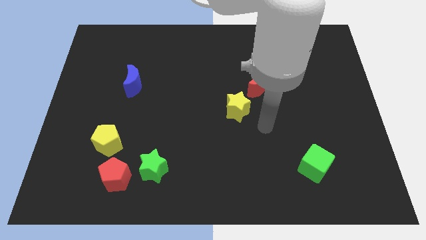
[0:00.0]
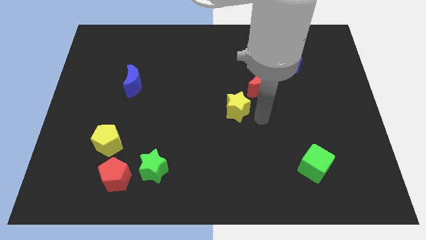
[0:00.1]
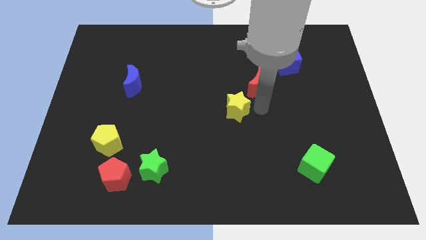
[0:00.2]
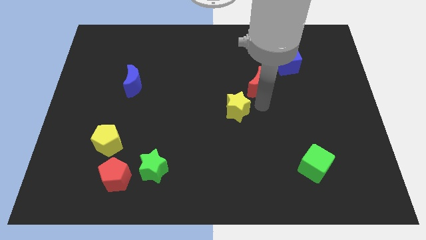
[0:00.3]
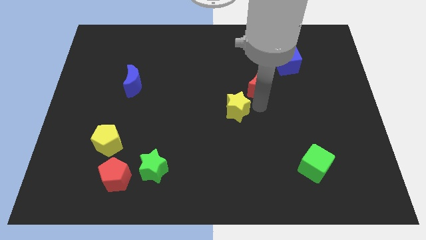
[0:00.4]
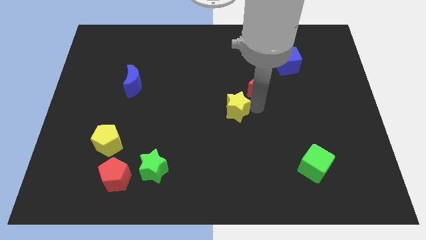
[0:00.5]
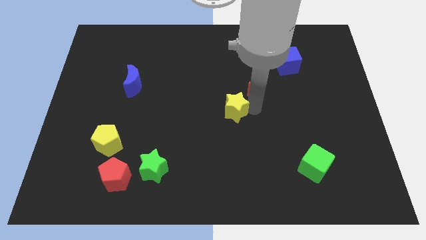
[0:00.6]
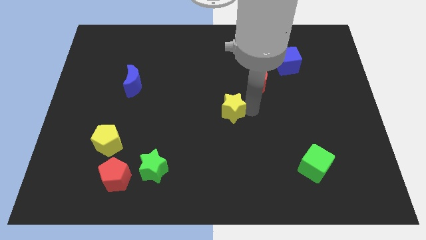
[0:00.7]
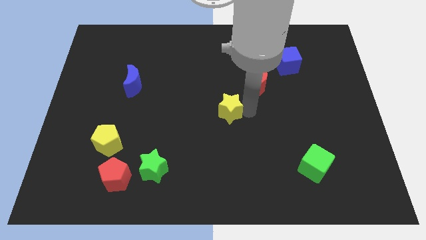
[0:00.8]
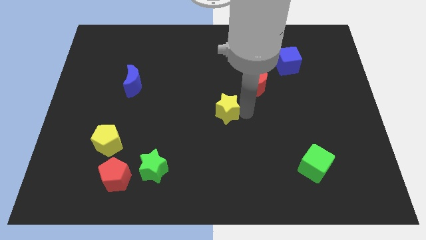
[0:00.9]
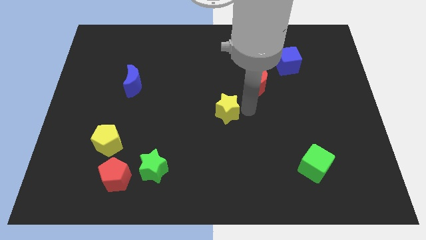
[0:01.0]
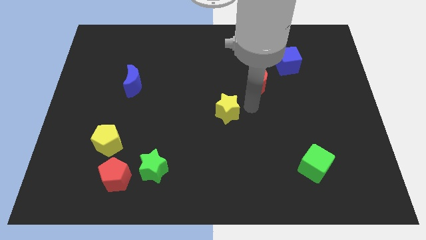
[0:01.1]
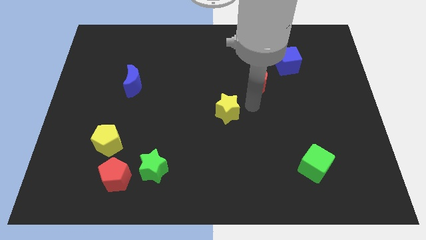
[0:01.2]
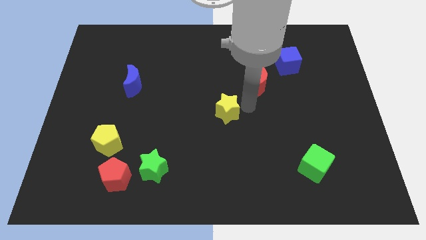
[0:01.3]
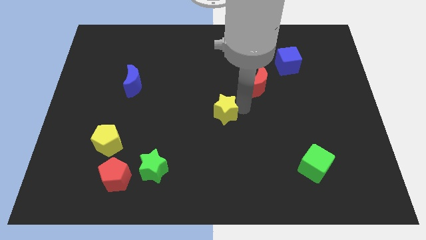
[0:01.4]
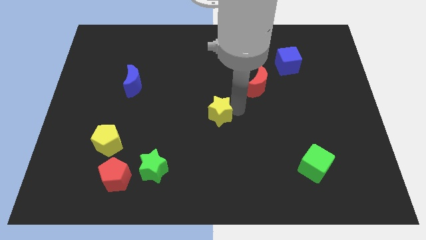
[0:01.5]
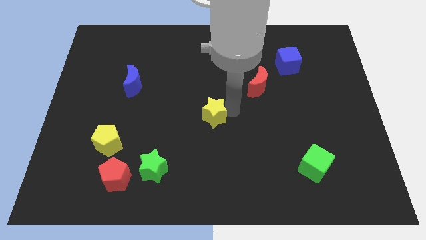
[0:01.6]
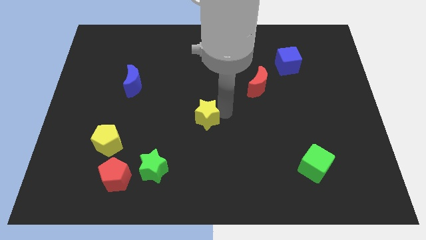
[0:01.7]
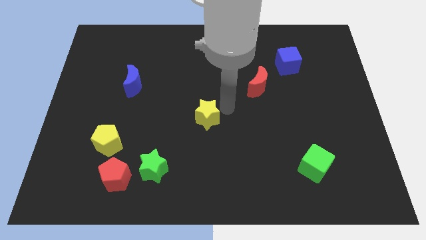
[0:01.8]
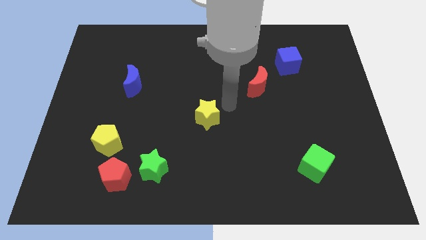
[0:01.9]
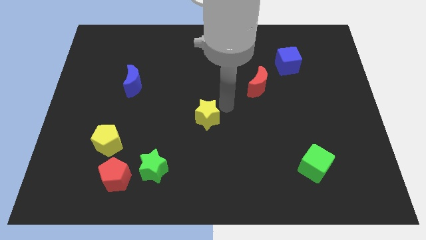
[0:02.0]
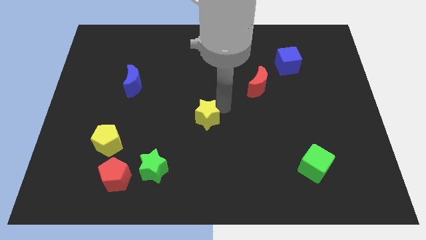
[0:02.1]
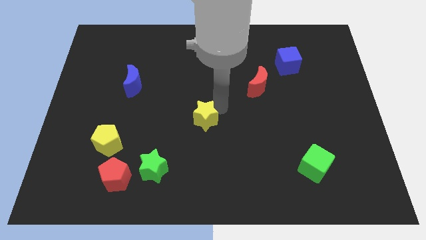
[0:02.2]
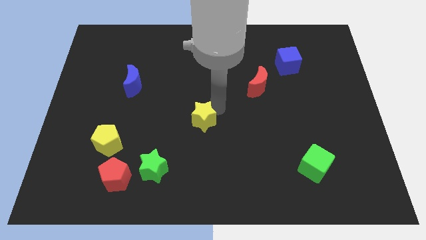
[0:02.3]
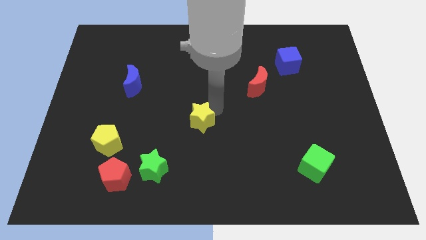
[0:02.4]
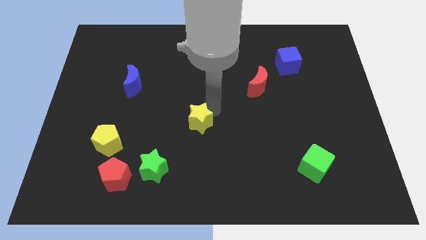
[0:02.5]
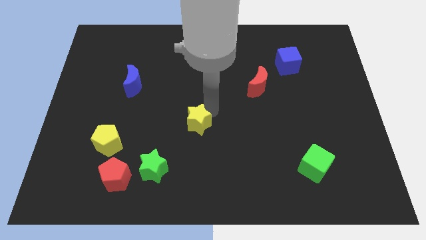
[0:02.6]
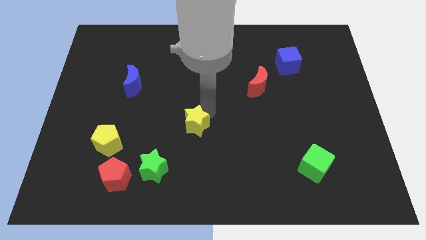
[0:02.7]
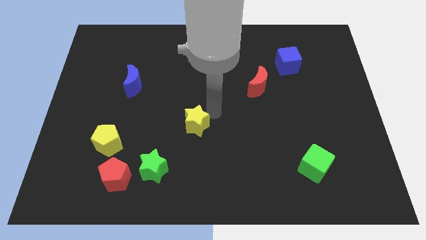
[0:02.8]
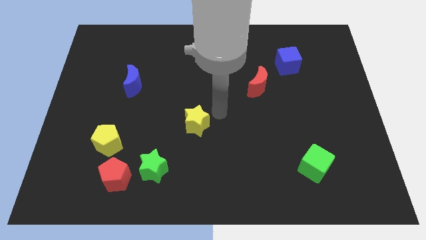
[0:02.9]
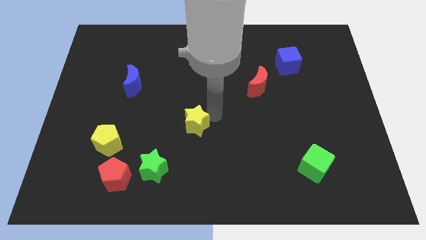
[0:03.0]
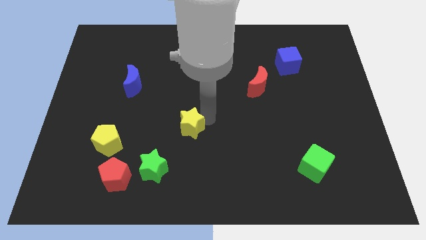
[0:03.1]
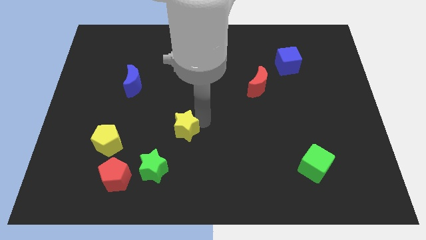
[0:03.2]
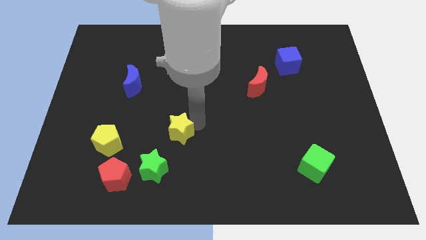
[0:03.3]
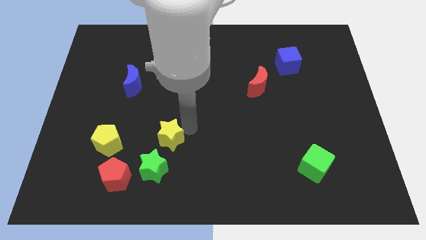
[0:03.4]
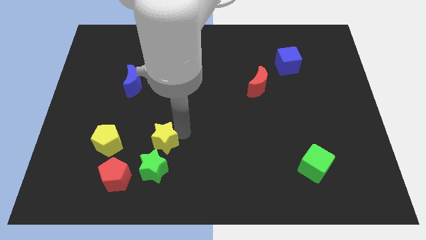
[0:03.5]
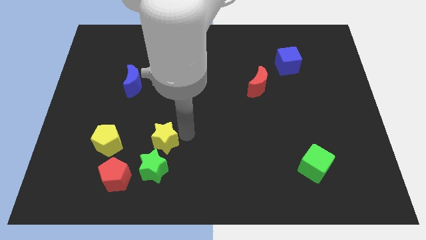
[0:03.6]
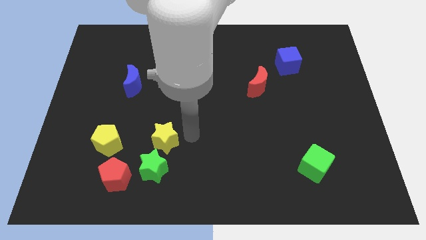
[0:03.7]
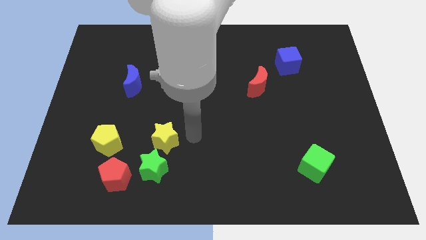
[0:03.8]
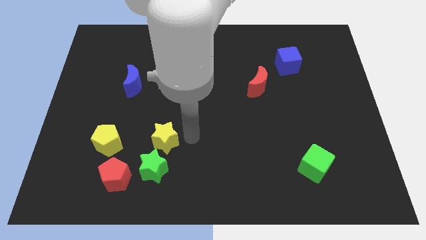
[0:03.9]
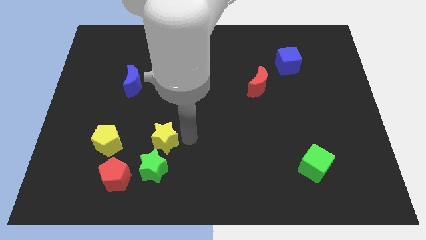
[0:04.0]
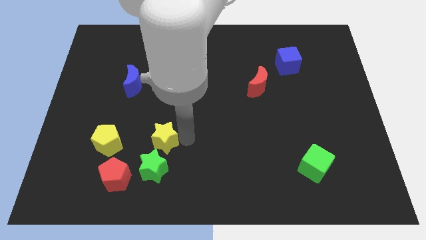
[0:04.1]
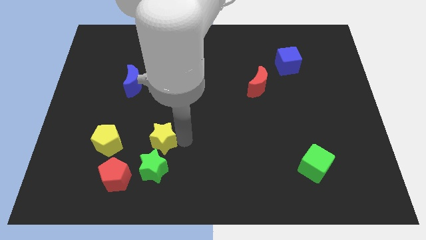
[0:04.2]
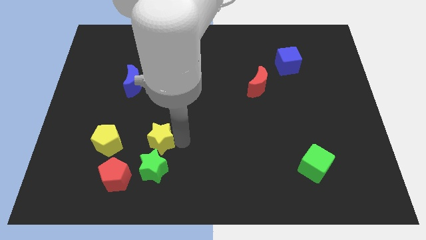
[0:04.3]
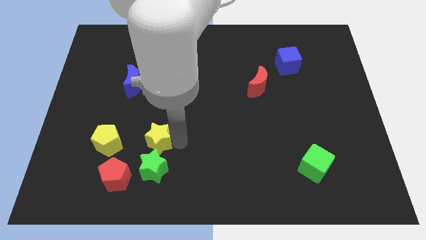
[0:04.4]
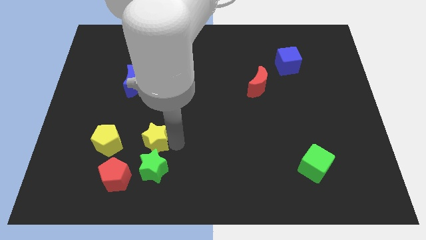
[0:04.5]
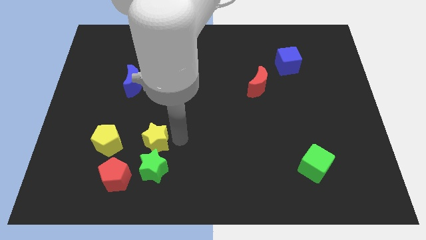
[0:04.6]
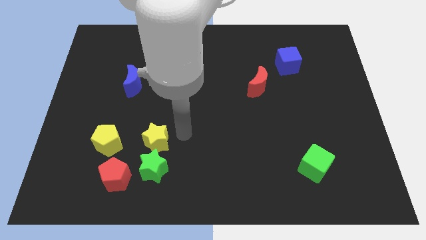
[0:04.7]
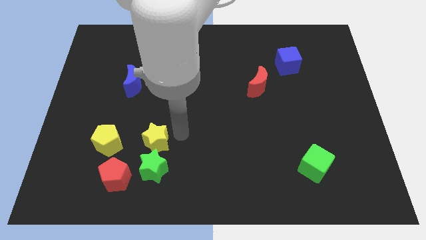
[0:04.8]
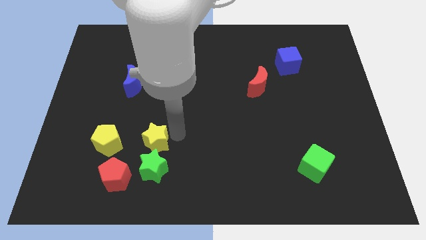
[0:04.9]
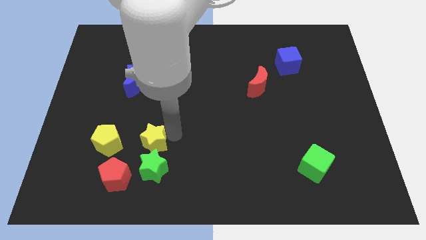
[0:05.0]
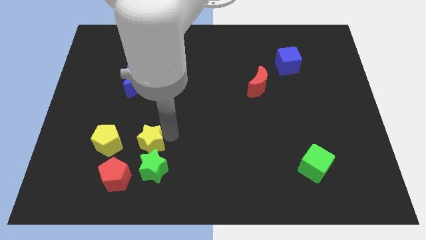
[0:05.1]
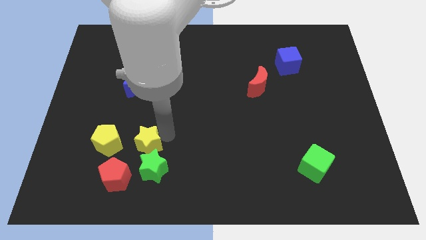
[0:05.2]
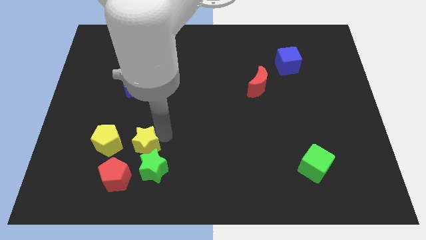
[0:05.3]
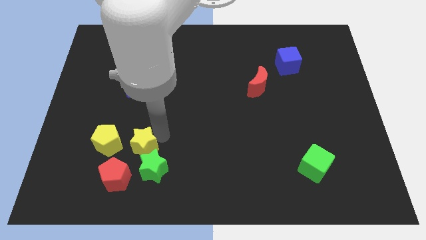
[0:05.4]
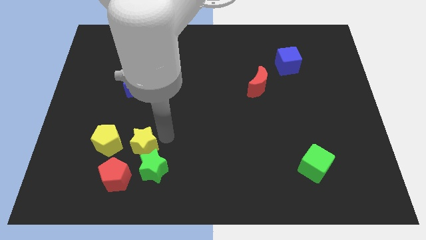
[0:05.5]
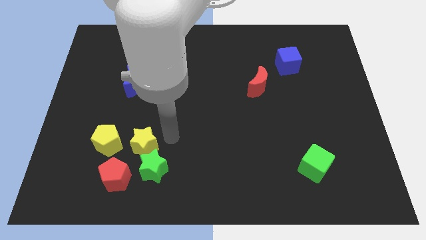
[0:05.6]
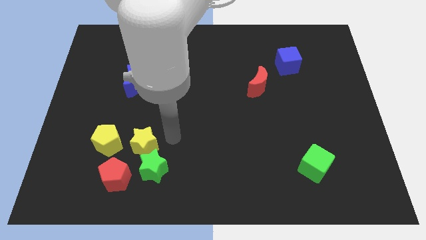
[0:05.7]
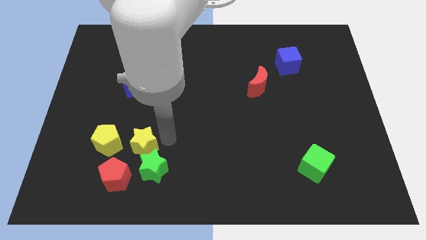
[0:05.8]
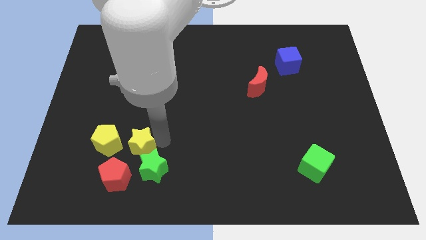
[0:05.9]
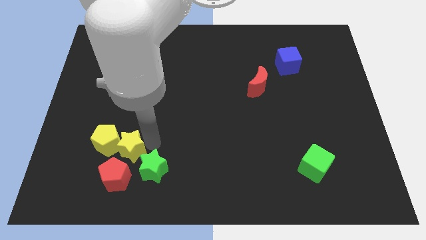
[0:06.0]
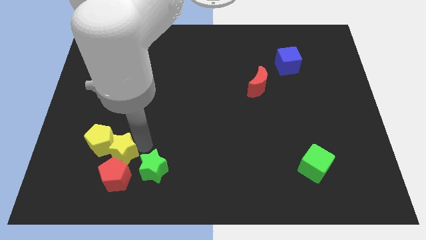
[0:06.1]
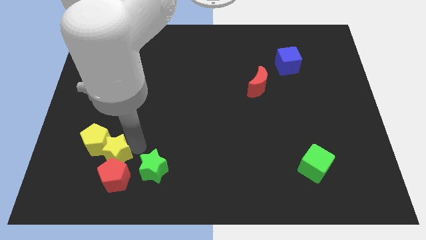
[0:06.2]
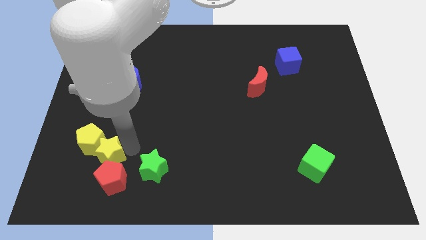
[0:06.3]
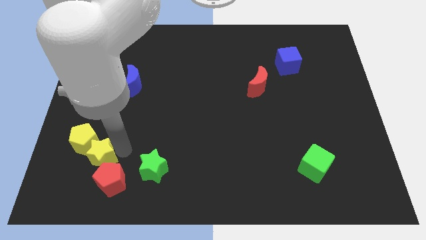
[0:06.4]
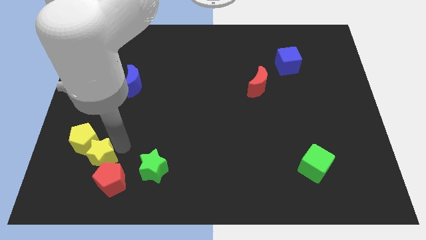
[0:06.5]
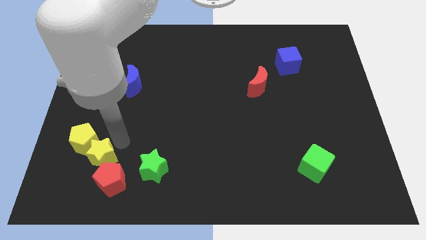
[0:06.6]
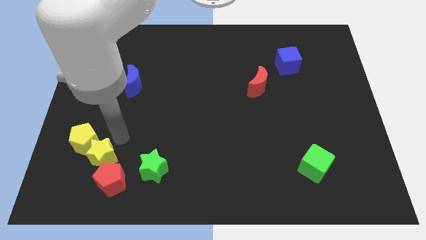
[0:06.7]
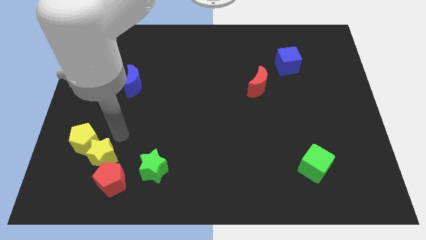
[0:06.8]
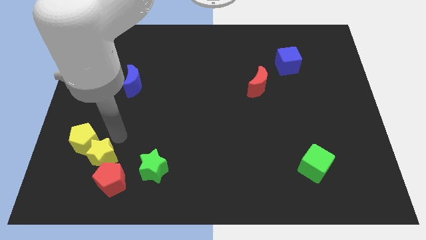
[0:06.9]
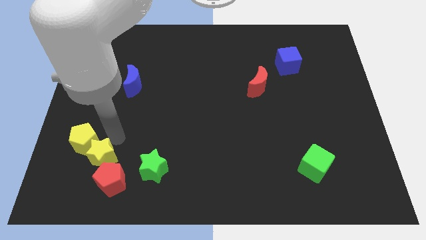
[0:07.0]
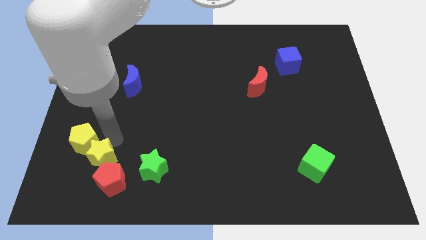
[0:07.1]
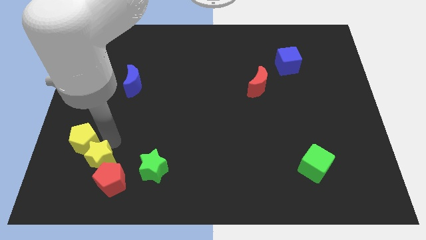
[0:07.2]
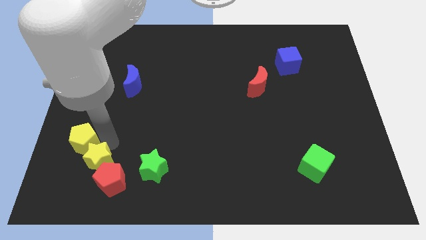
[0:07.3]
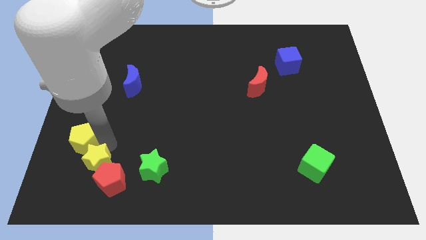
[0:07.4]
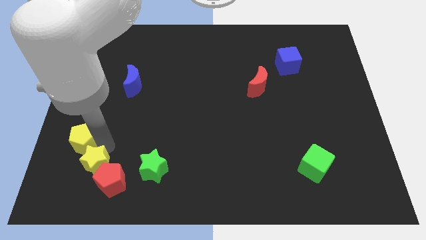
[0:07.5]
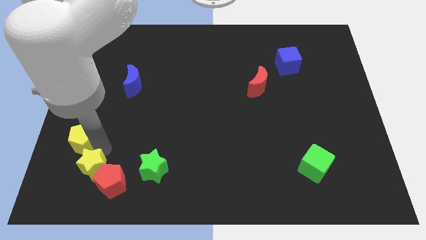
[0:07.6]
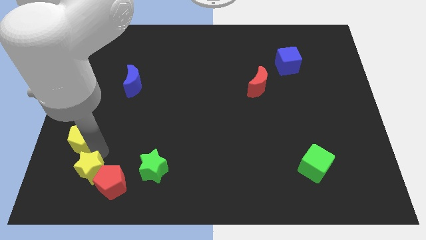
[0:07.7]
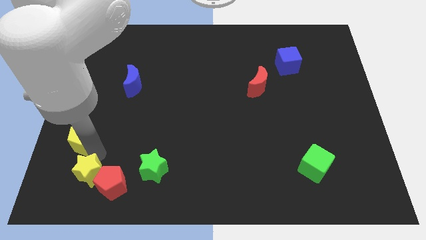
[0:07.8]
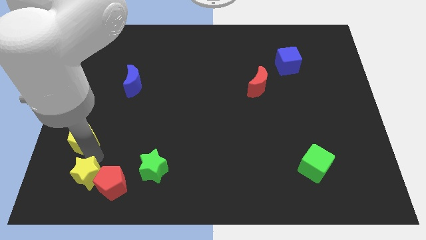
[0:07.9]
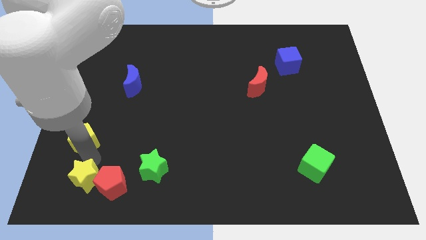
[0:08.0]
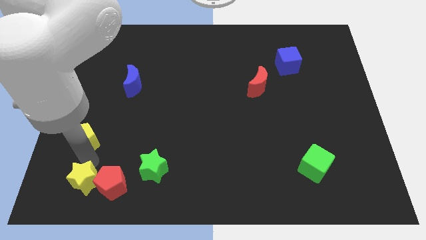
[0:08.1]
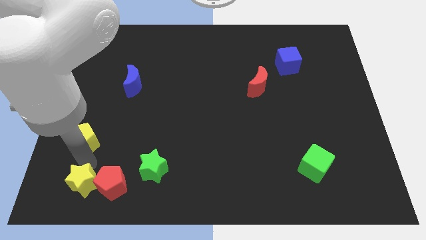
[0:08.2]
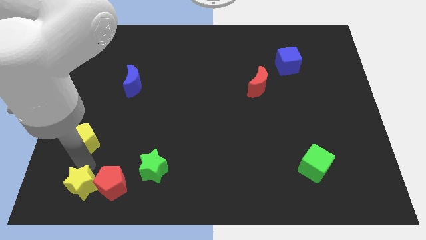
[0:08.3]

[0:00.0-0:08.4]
put the yellow star to the lower left corner
